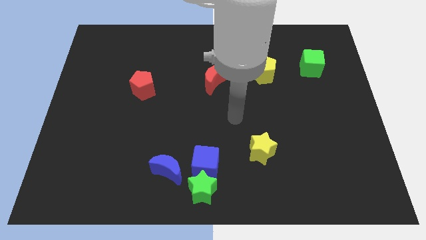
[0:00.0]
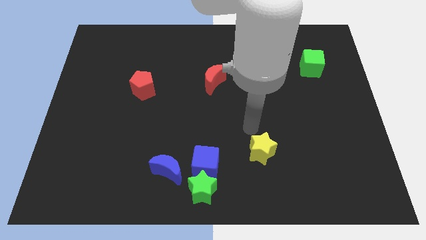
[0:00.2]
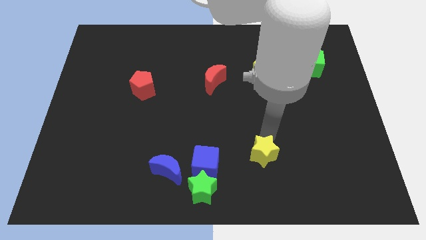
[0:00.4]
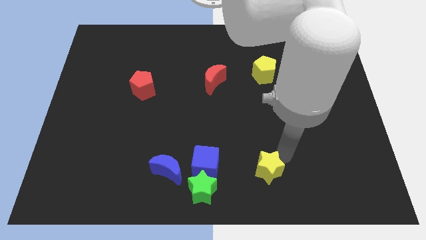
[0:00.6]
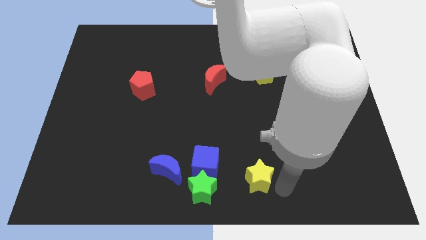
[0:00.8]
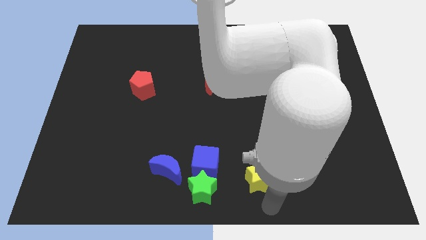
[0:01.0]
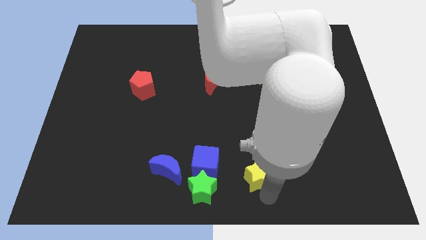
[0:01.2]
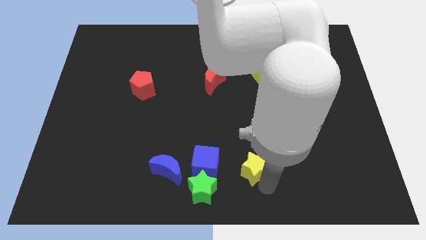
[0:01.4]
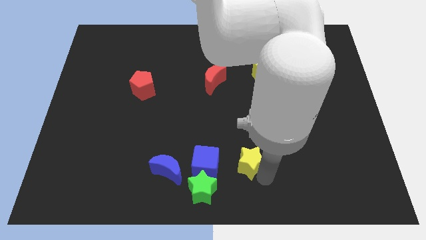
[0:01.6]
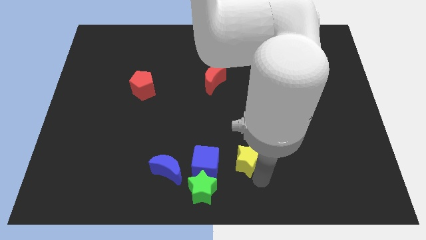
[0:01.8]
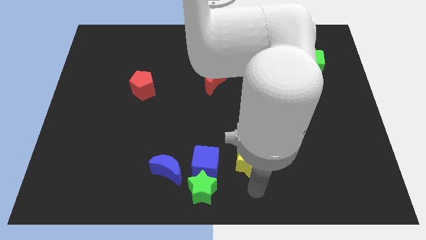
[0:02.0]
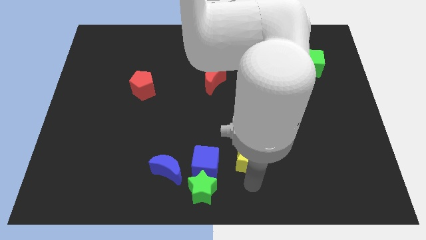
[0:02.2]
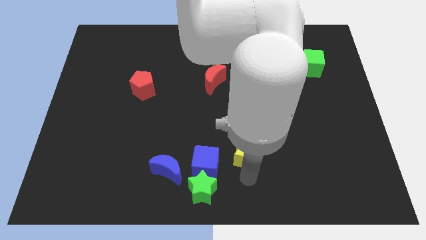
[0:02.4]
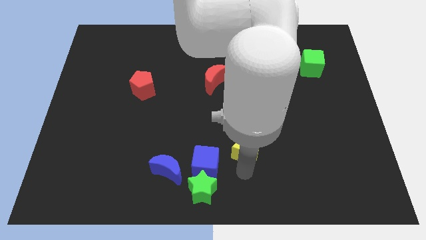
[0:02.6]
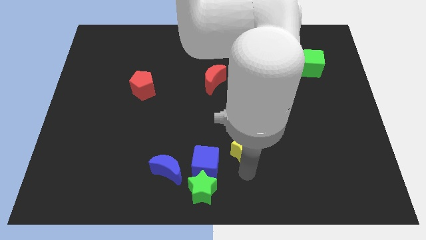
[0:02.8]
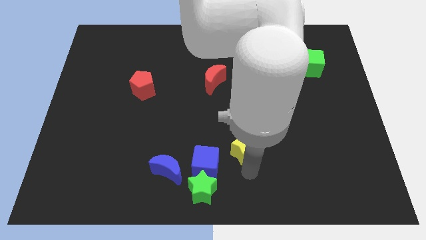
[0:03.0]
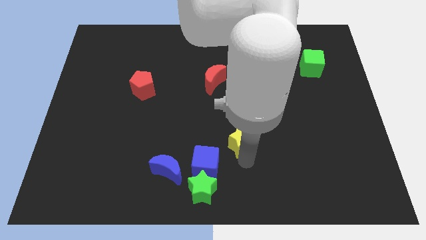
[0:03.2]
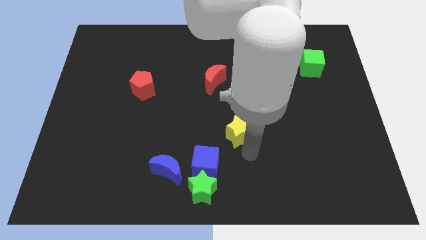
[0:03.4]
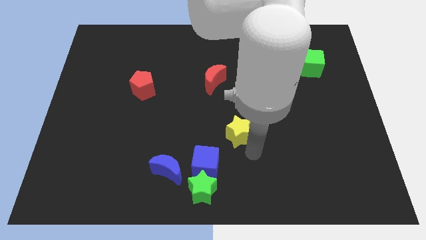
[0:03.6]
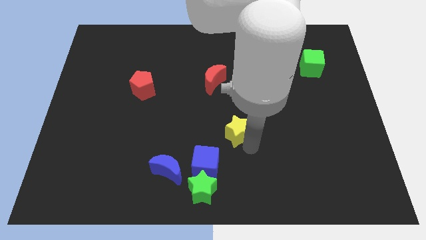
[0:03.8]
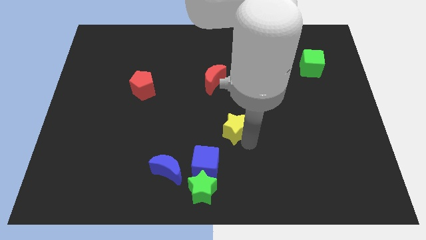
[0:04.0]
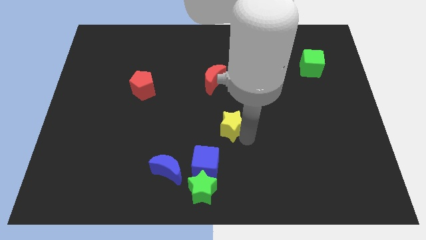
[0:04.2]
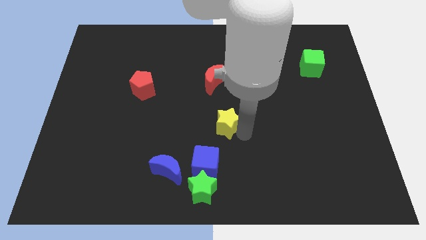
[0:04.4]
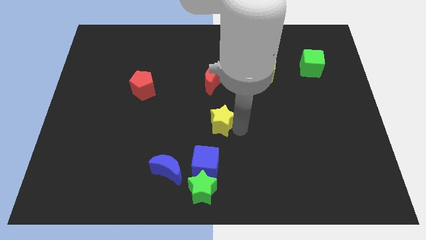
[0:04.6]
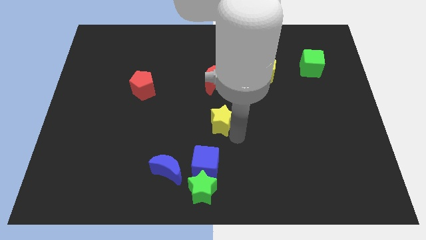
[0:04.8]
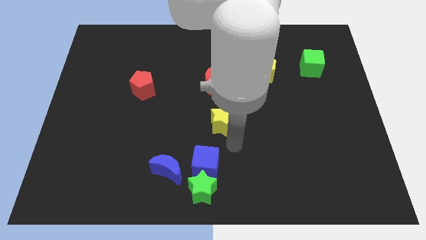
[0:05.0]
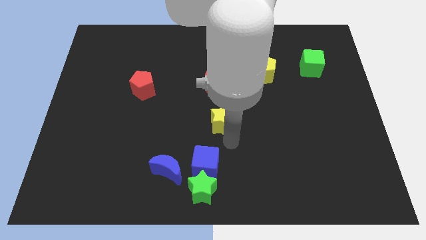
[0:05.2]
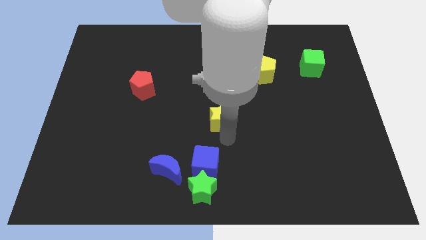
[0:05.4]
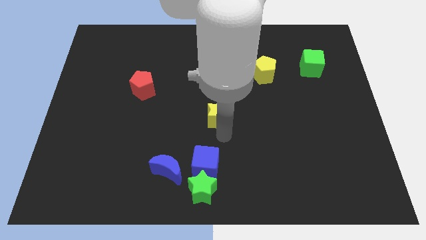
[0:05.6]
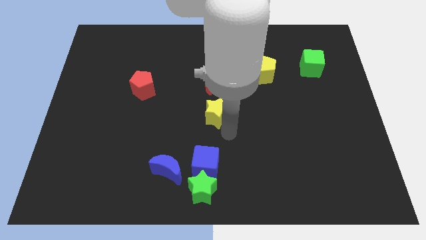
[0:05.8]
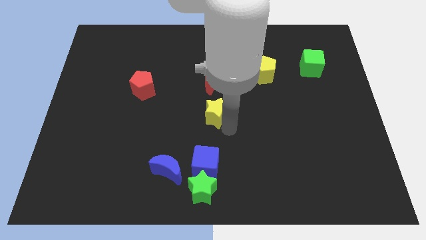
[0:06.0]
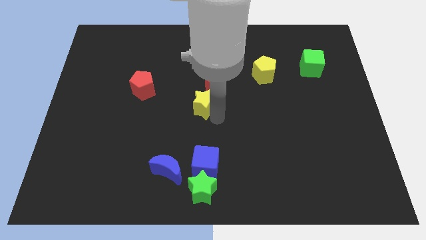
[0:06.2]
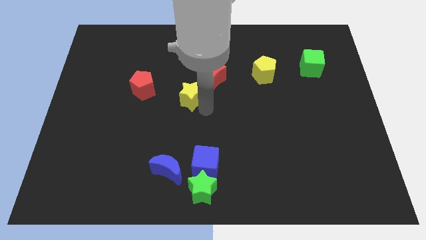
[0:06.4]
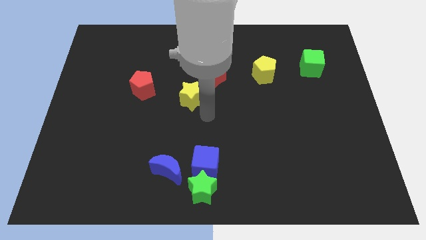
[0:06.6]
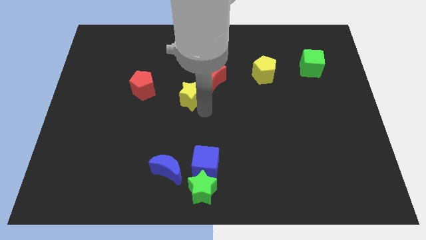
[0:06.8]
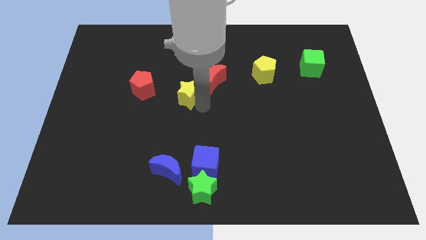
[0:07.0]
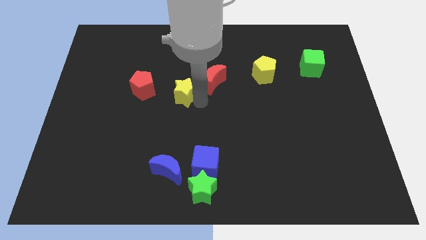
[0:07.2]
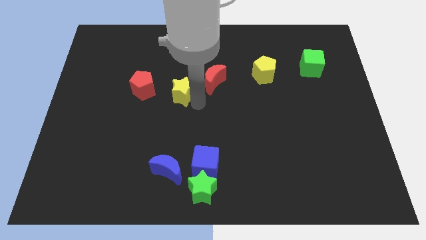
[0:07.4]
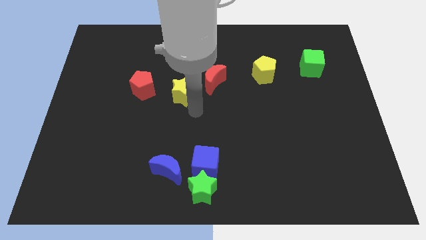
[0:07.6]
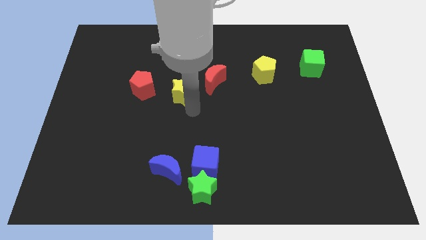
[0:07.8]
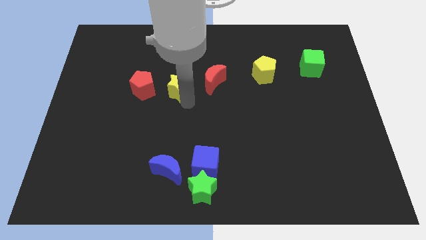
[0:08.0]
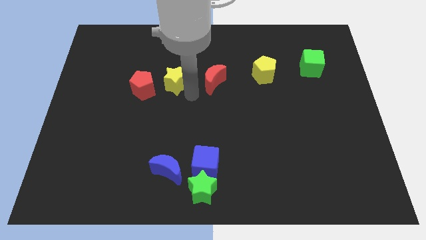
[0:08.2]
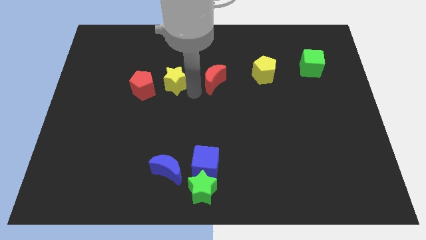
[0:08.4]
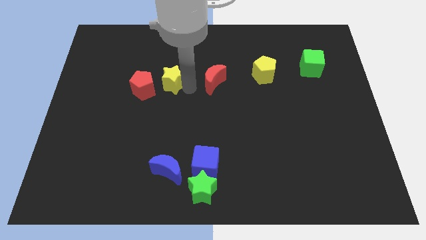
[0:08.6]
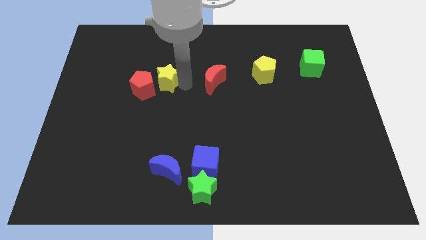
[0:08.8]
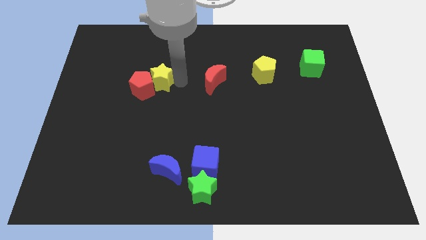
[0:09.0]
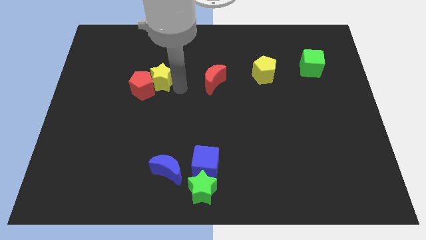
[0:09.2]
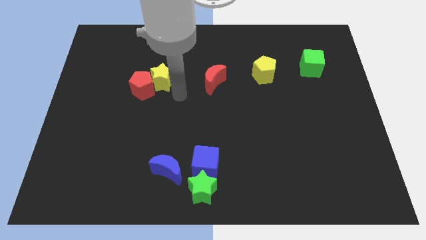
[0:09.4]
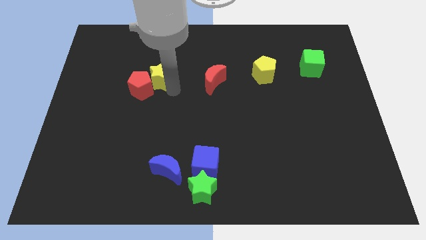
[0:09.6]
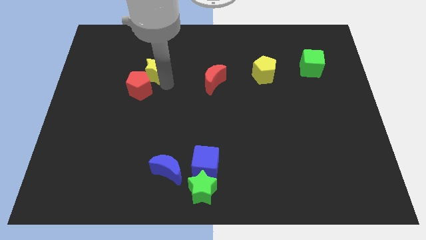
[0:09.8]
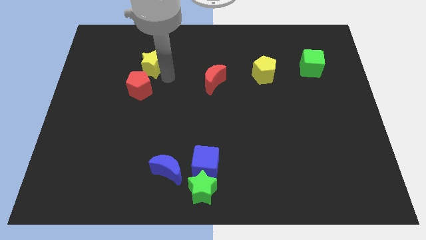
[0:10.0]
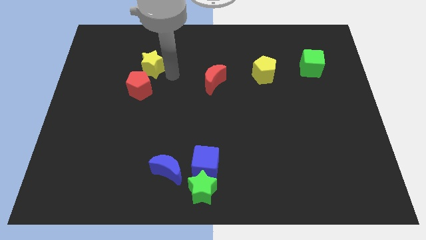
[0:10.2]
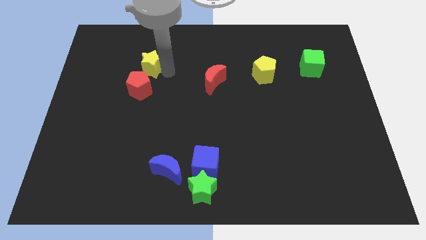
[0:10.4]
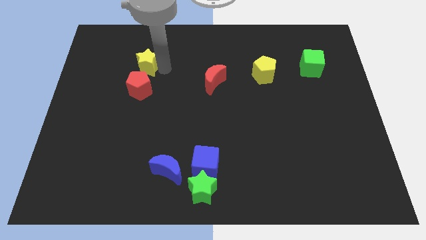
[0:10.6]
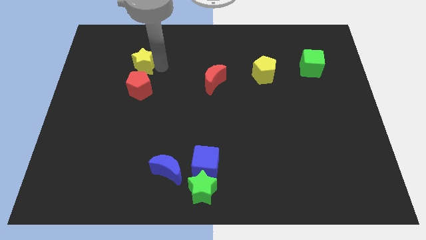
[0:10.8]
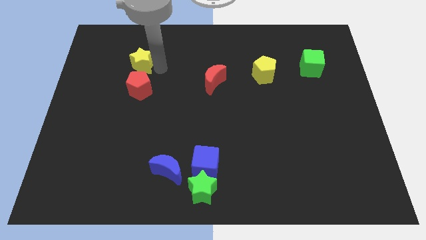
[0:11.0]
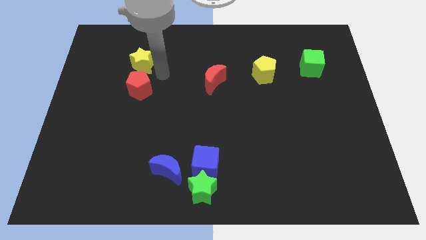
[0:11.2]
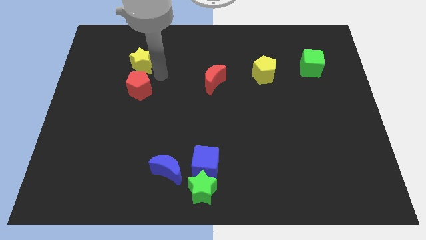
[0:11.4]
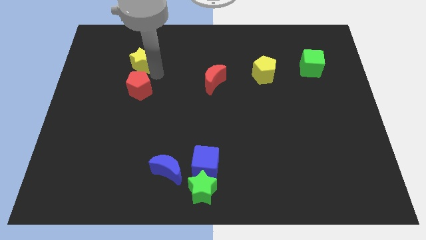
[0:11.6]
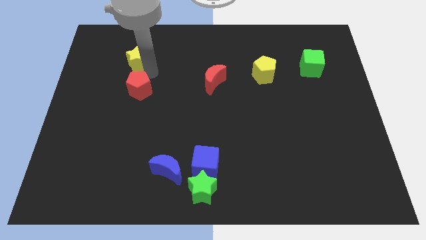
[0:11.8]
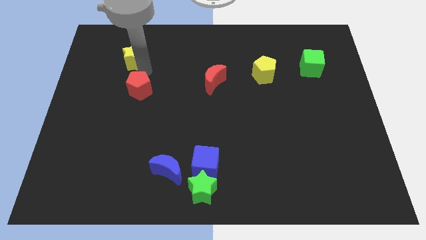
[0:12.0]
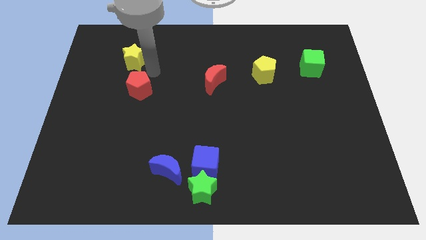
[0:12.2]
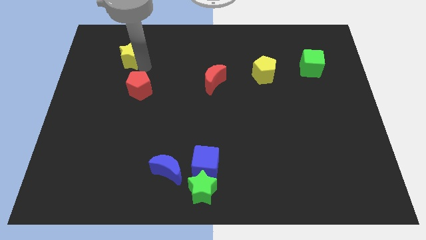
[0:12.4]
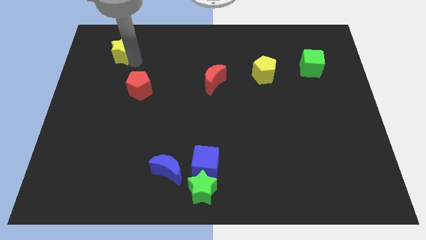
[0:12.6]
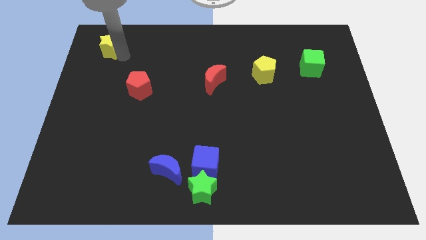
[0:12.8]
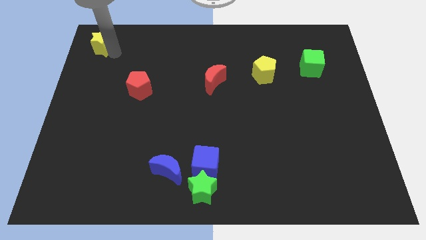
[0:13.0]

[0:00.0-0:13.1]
put the yellow star to the upper left corner
